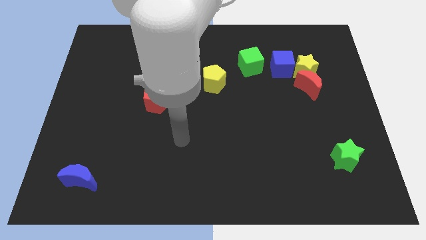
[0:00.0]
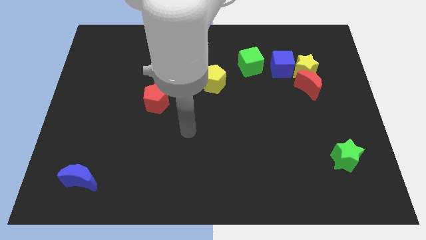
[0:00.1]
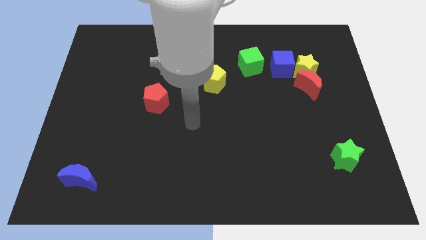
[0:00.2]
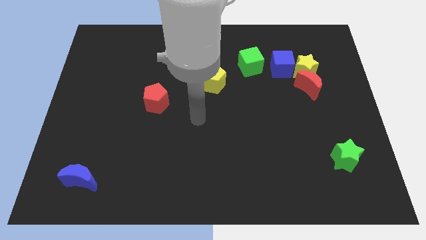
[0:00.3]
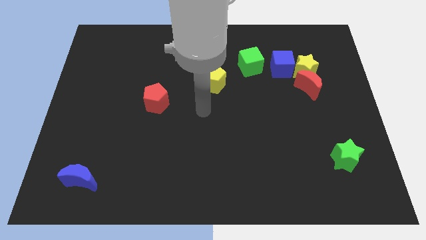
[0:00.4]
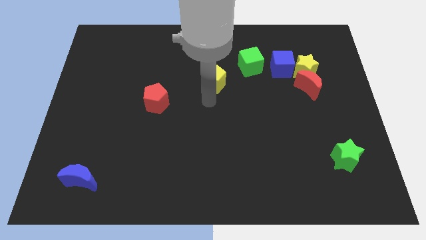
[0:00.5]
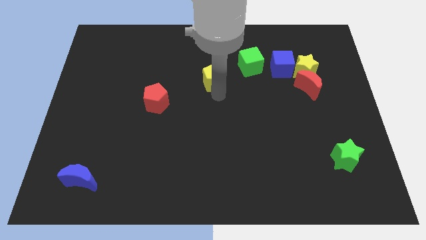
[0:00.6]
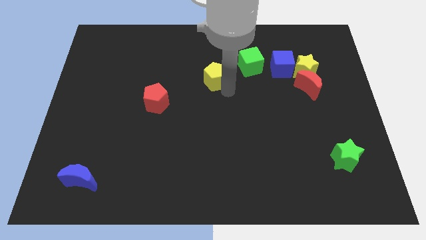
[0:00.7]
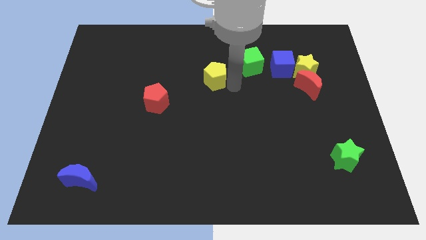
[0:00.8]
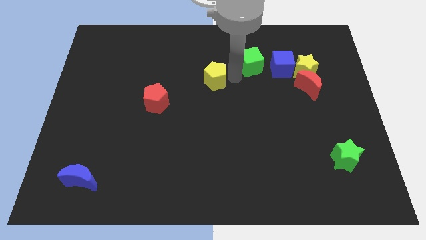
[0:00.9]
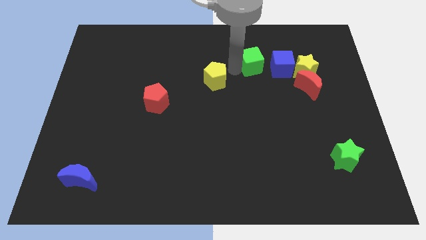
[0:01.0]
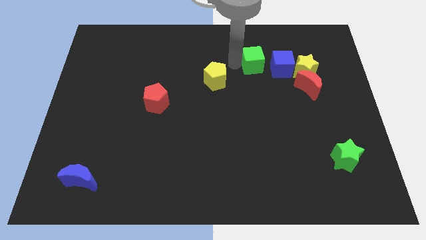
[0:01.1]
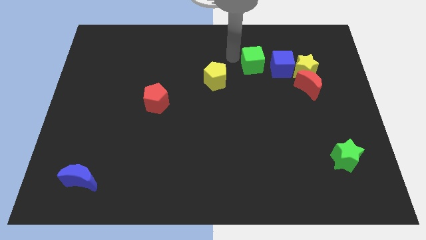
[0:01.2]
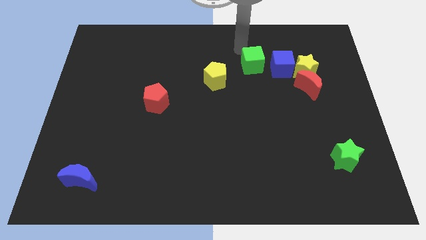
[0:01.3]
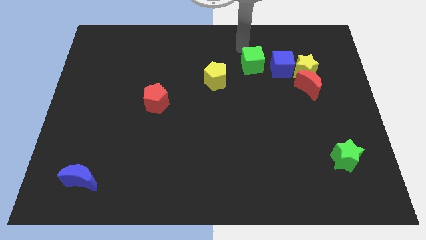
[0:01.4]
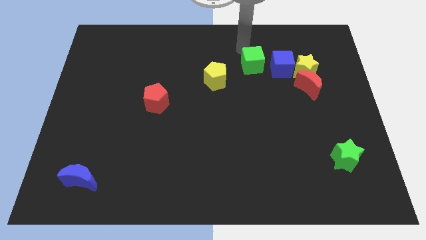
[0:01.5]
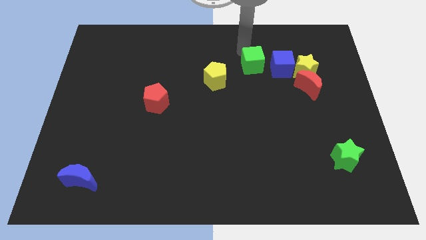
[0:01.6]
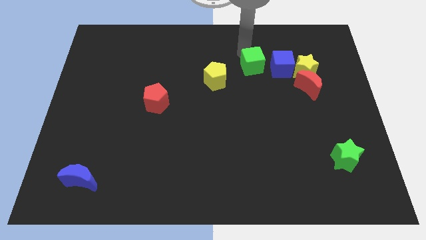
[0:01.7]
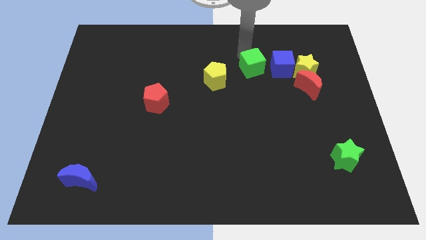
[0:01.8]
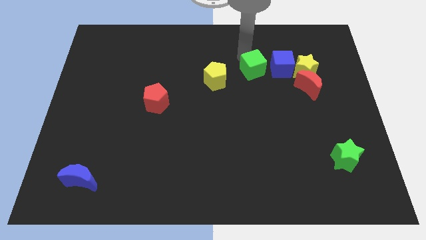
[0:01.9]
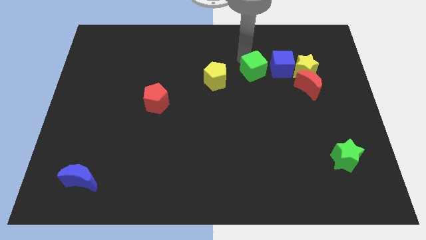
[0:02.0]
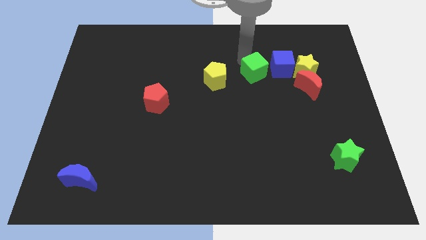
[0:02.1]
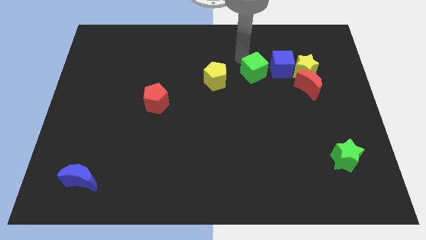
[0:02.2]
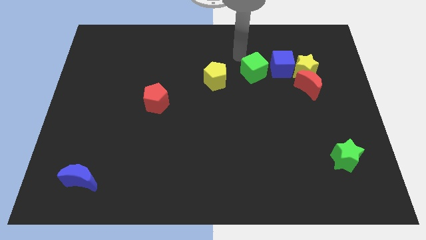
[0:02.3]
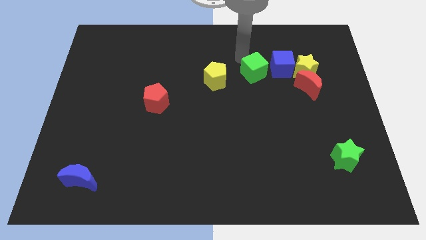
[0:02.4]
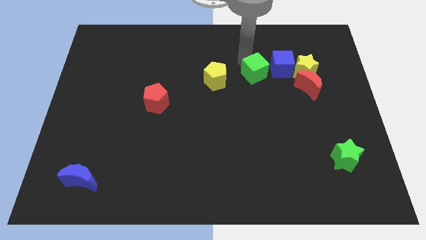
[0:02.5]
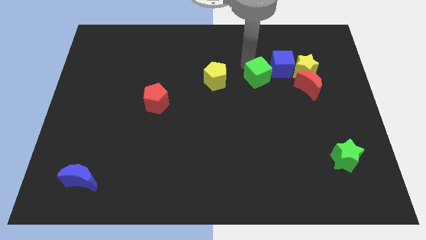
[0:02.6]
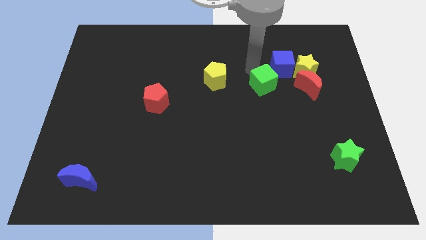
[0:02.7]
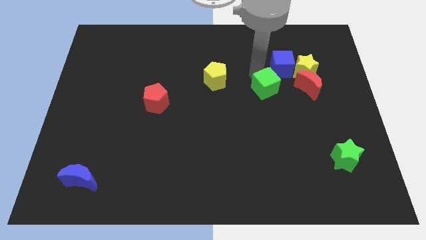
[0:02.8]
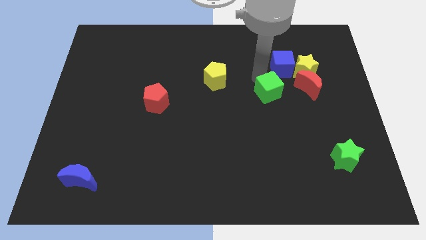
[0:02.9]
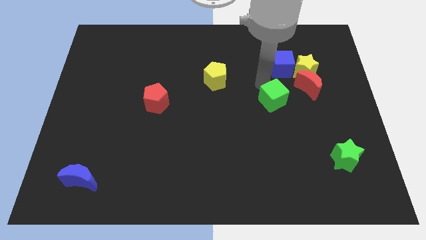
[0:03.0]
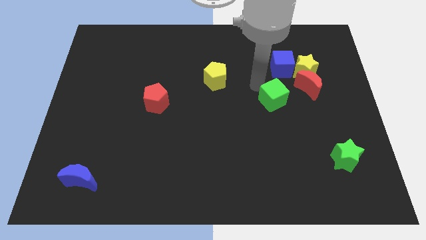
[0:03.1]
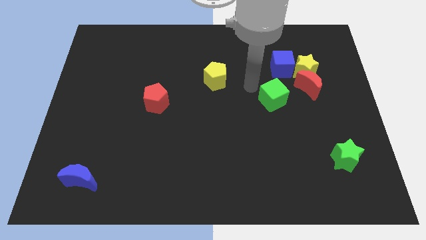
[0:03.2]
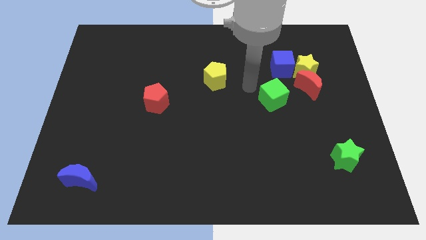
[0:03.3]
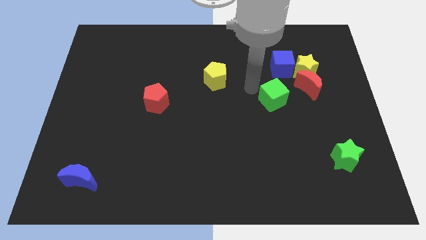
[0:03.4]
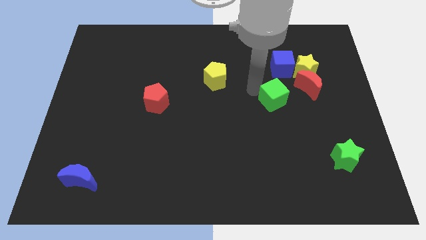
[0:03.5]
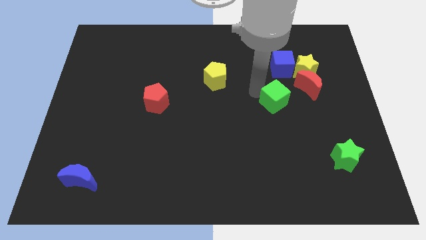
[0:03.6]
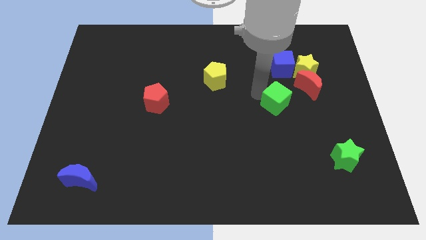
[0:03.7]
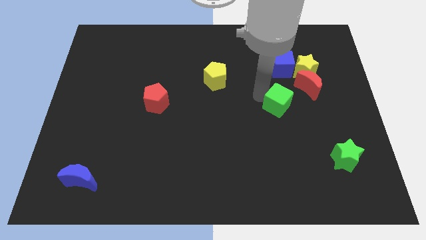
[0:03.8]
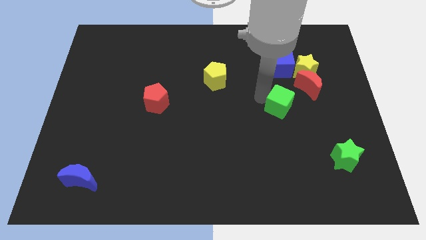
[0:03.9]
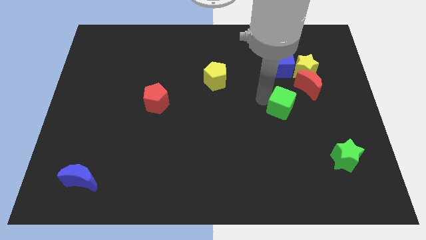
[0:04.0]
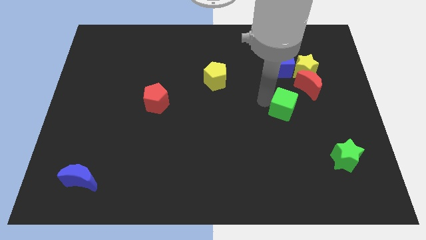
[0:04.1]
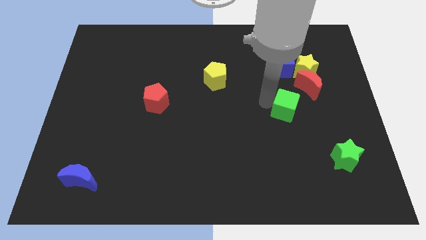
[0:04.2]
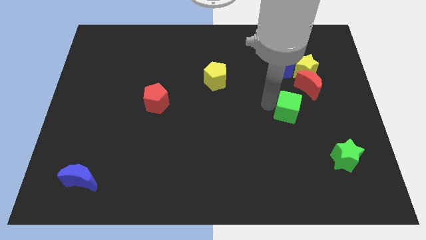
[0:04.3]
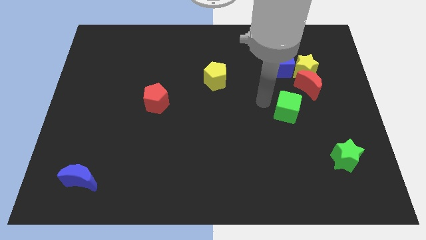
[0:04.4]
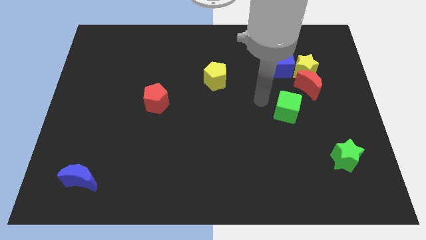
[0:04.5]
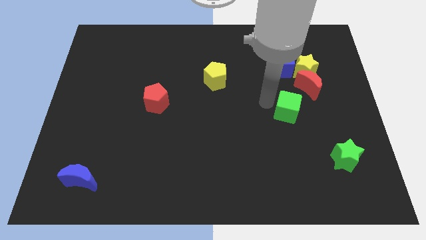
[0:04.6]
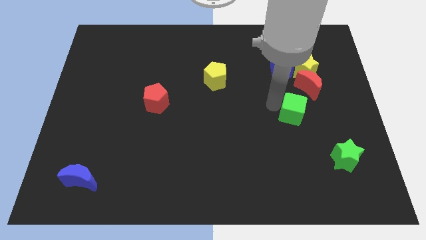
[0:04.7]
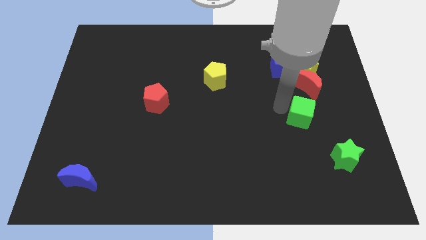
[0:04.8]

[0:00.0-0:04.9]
move the green cube to the bottom of the red moon

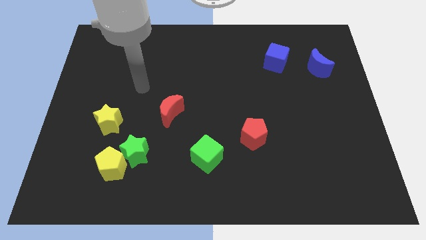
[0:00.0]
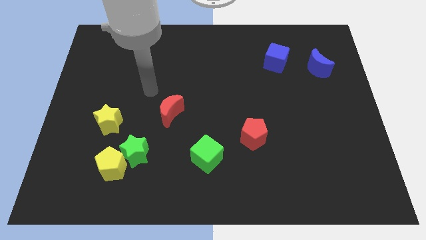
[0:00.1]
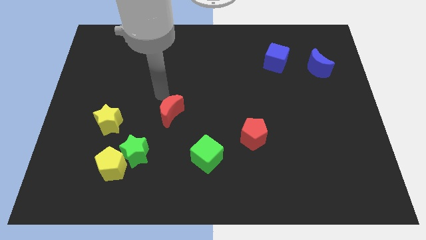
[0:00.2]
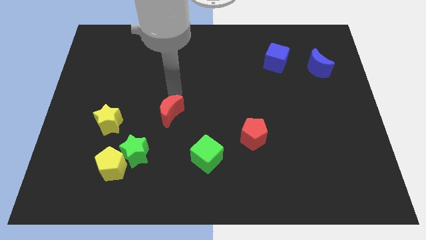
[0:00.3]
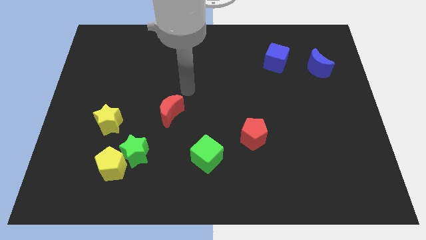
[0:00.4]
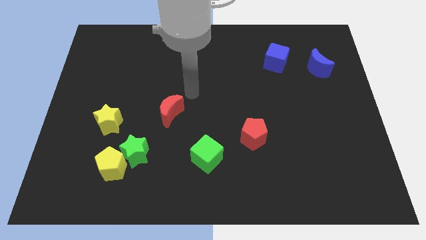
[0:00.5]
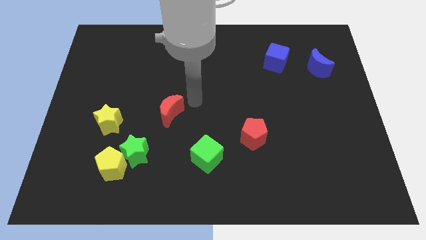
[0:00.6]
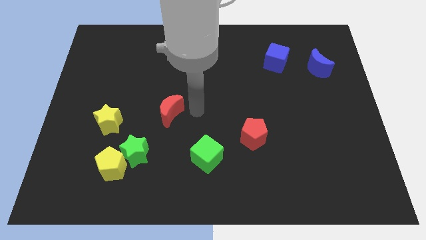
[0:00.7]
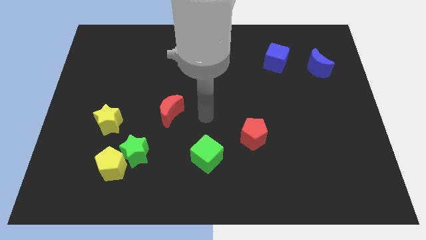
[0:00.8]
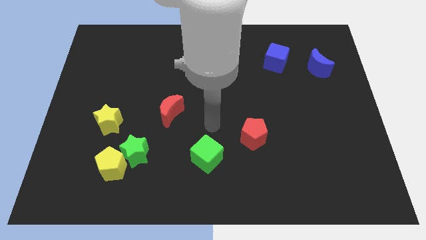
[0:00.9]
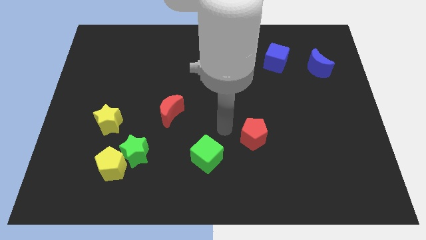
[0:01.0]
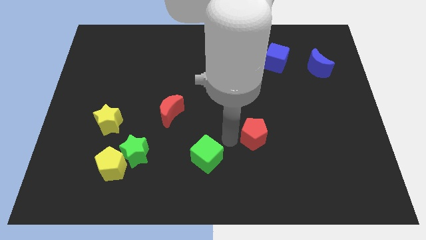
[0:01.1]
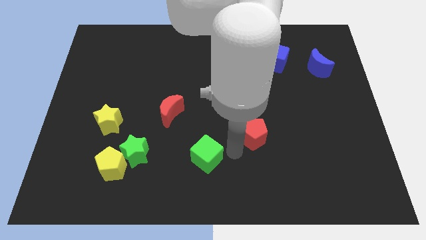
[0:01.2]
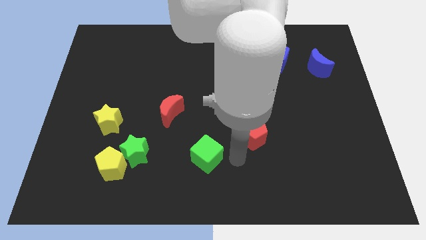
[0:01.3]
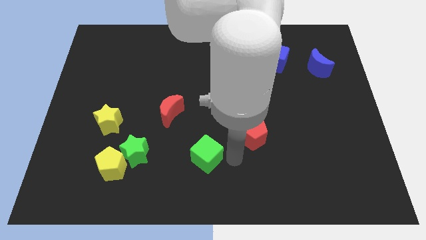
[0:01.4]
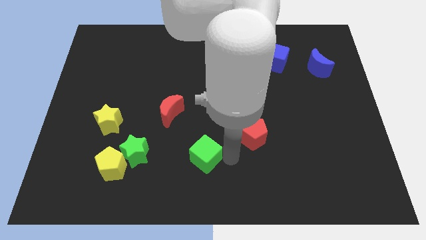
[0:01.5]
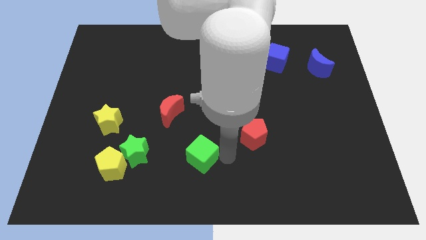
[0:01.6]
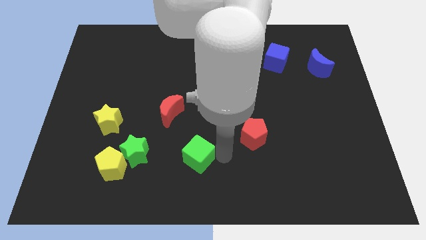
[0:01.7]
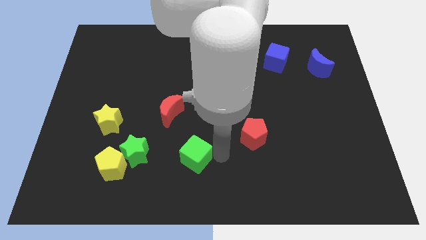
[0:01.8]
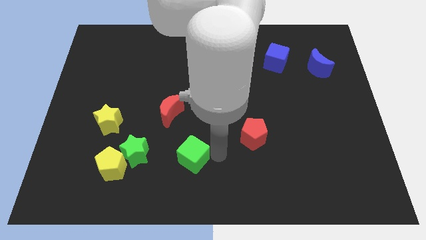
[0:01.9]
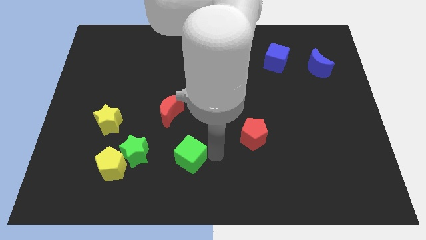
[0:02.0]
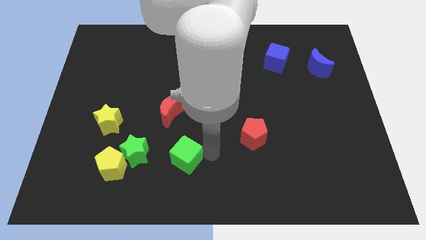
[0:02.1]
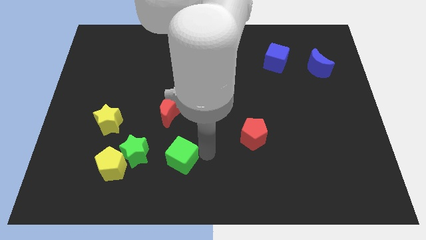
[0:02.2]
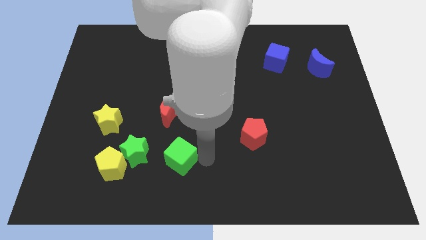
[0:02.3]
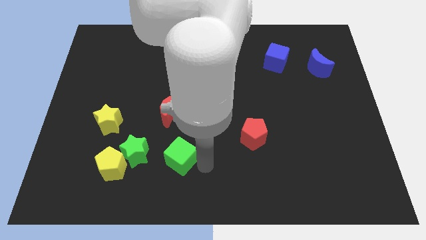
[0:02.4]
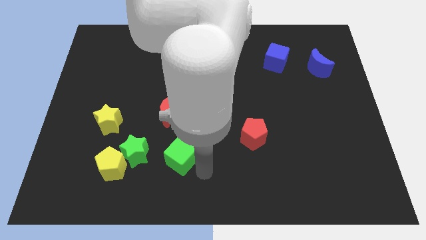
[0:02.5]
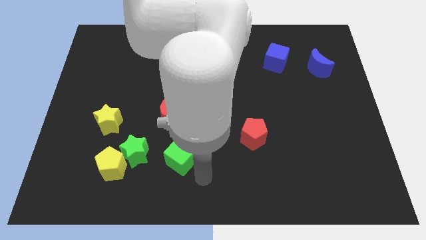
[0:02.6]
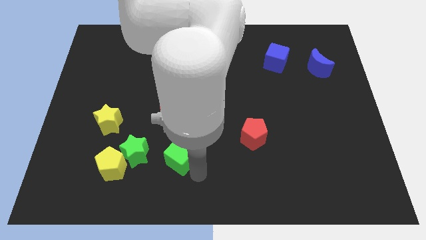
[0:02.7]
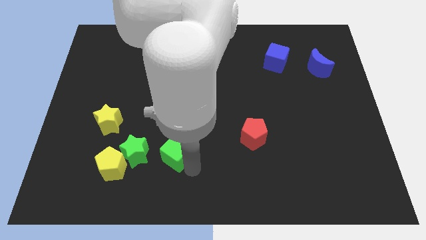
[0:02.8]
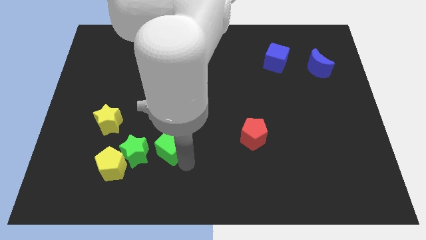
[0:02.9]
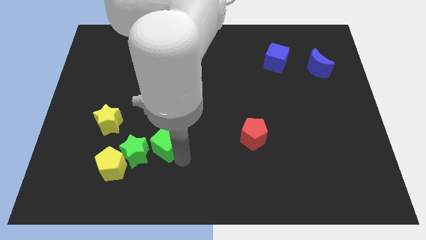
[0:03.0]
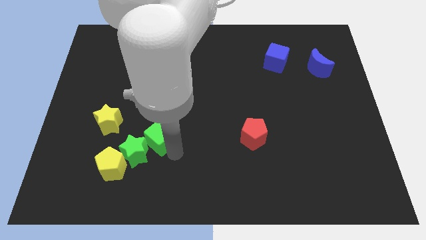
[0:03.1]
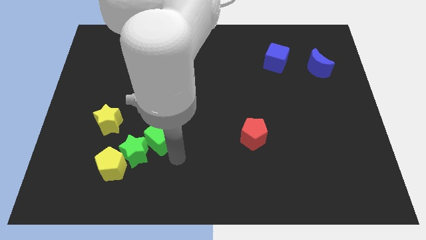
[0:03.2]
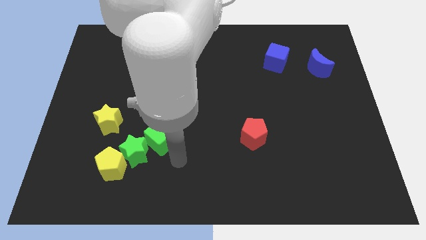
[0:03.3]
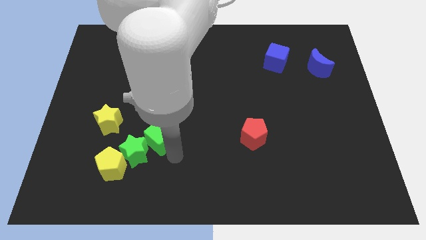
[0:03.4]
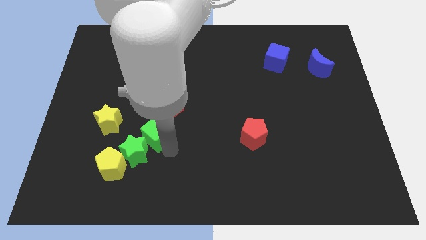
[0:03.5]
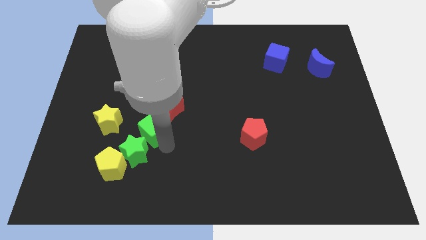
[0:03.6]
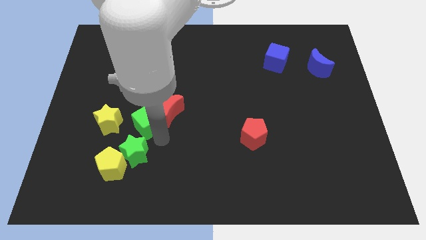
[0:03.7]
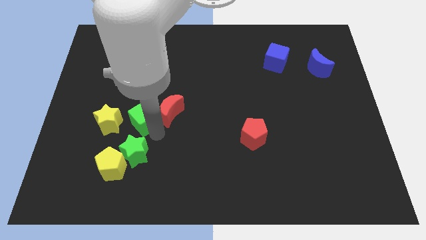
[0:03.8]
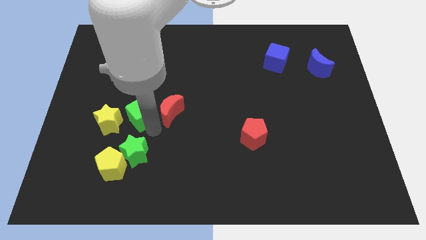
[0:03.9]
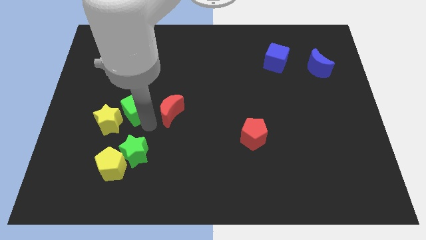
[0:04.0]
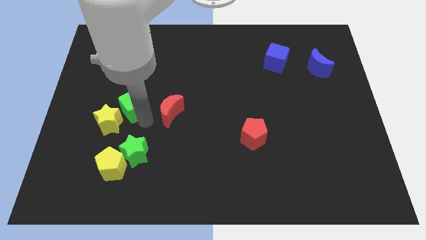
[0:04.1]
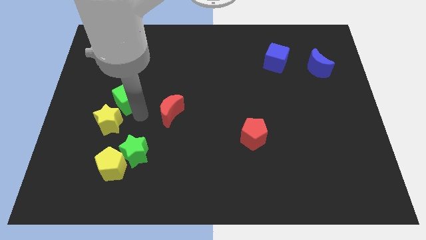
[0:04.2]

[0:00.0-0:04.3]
push the green cube above the yellow star
